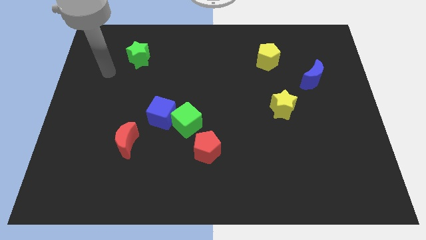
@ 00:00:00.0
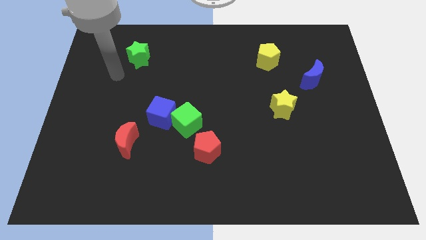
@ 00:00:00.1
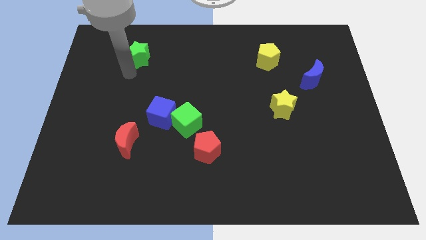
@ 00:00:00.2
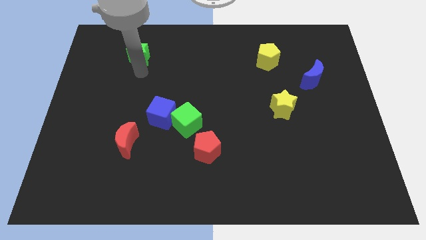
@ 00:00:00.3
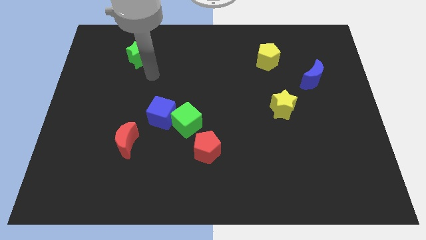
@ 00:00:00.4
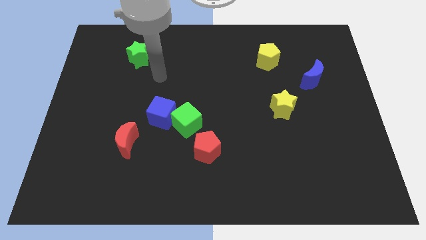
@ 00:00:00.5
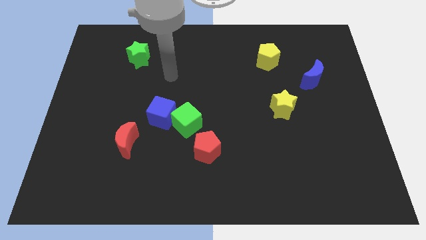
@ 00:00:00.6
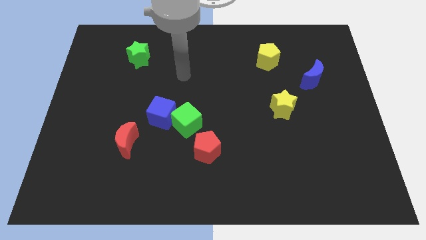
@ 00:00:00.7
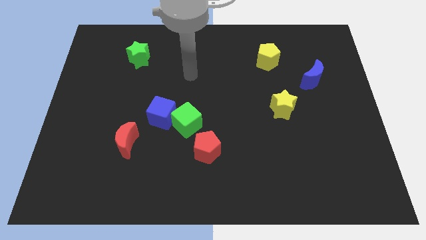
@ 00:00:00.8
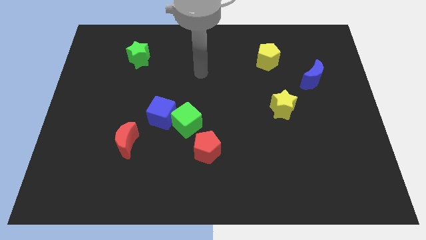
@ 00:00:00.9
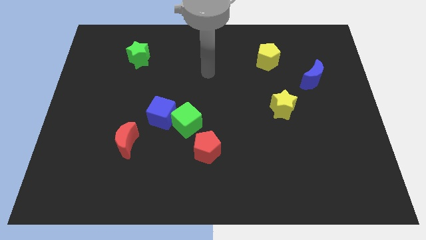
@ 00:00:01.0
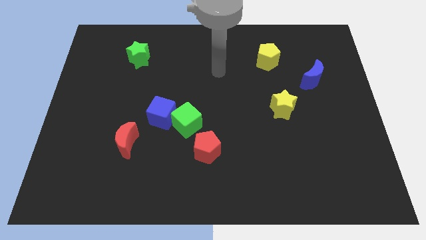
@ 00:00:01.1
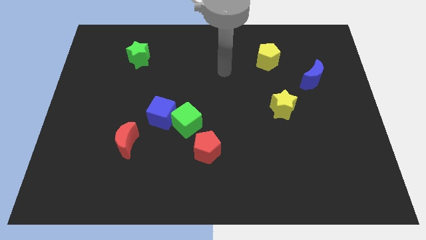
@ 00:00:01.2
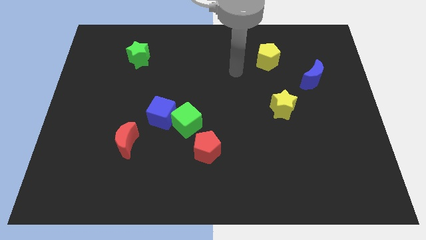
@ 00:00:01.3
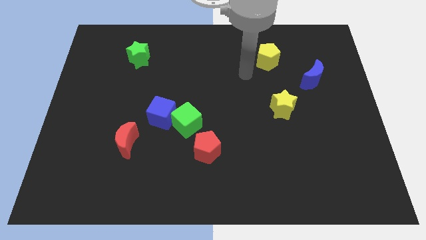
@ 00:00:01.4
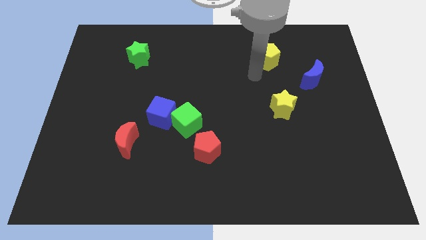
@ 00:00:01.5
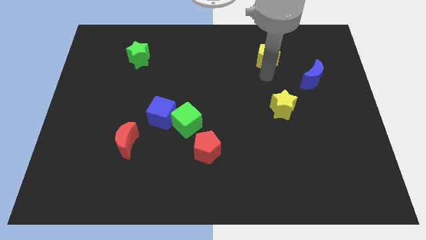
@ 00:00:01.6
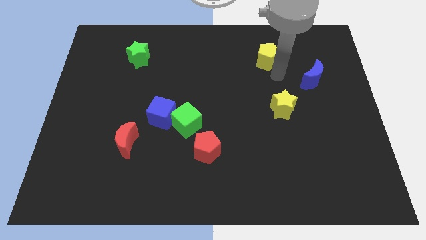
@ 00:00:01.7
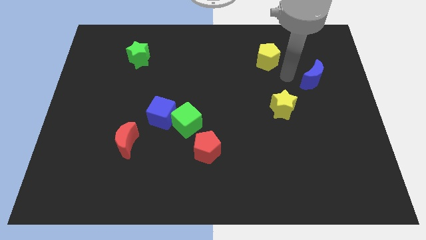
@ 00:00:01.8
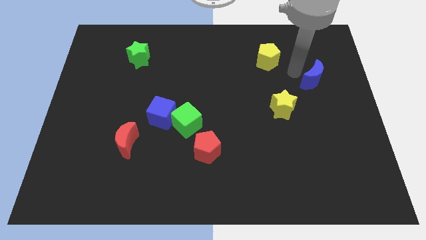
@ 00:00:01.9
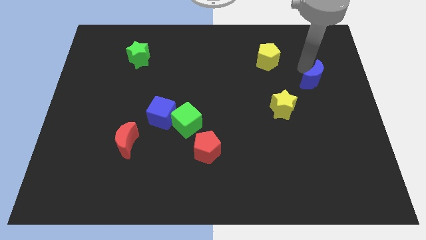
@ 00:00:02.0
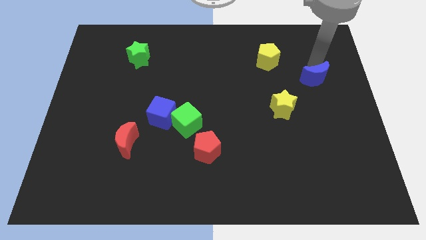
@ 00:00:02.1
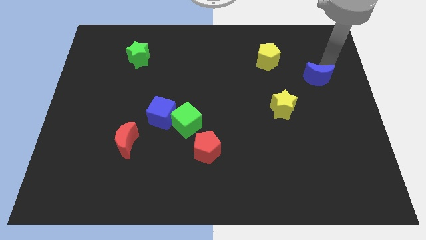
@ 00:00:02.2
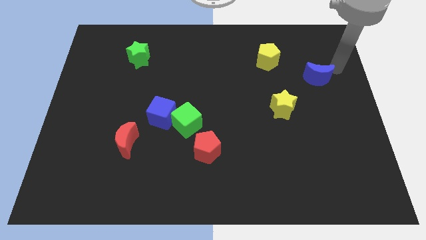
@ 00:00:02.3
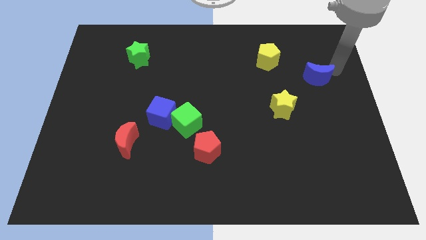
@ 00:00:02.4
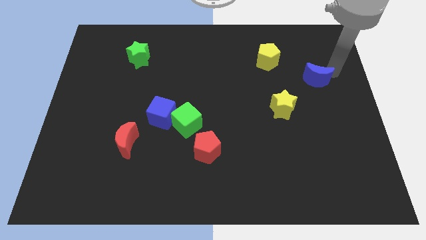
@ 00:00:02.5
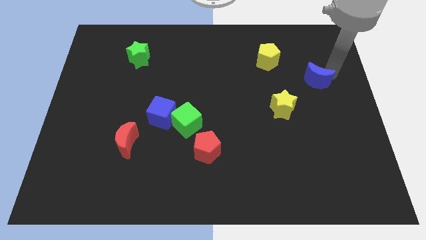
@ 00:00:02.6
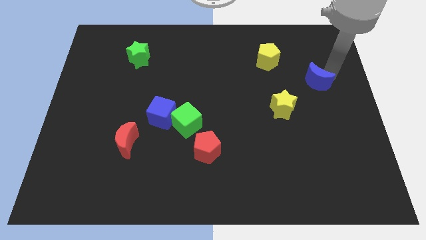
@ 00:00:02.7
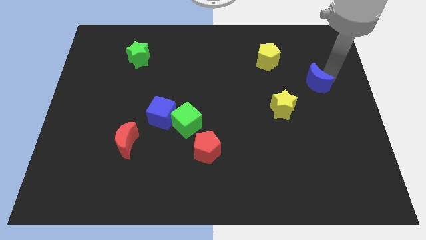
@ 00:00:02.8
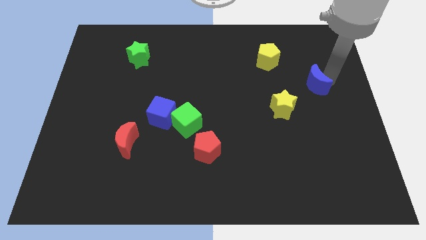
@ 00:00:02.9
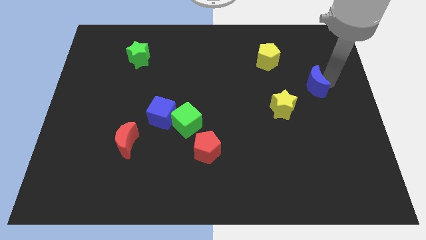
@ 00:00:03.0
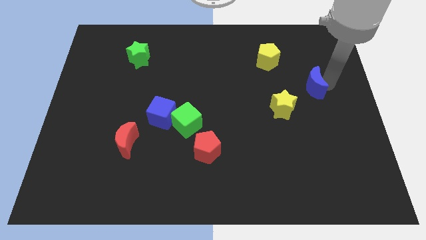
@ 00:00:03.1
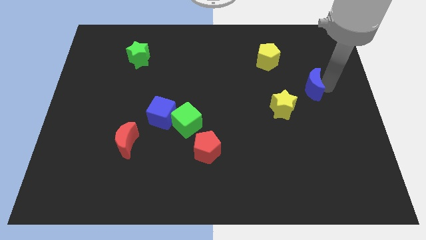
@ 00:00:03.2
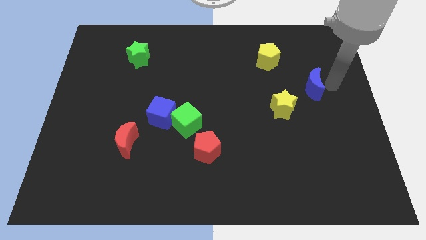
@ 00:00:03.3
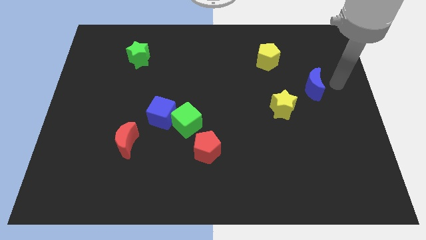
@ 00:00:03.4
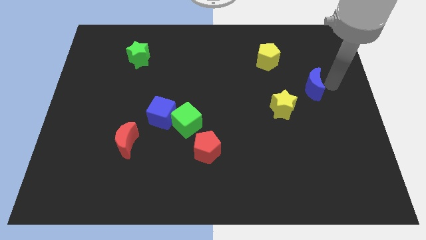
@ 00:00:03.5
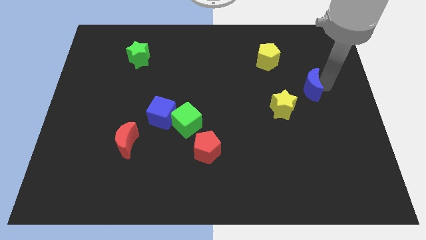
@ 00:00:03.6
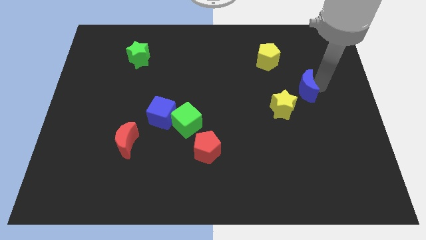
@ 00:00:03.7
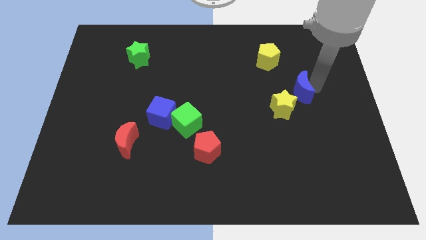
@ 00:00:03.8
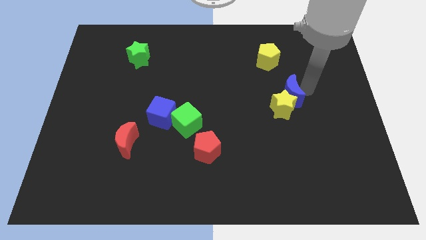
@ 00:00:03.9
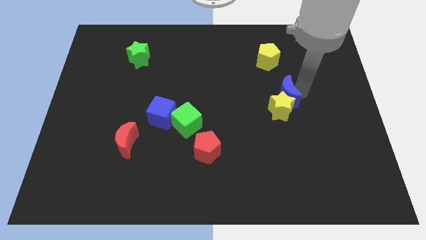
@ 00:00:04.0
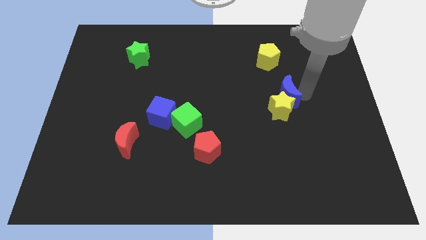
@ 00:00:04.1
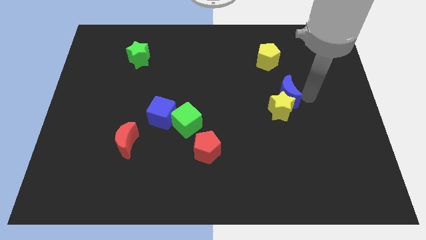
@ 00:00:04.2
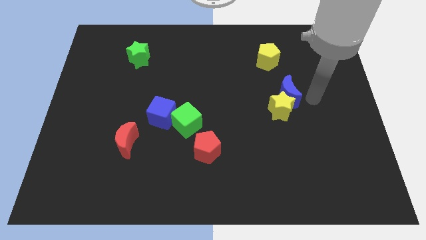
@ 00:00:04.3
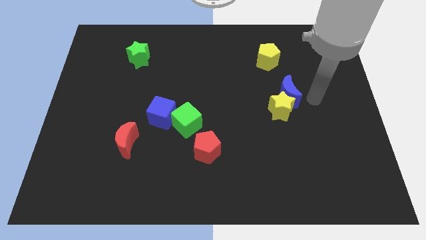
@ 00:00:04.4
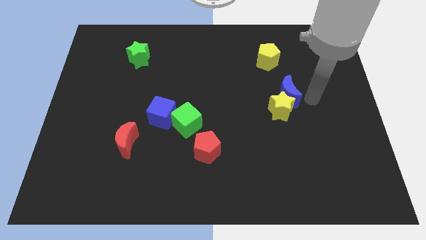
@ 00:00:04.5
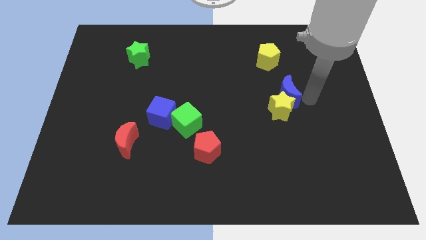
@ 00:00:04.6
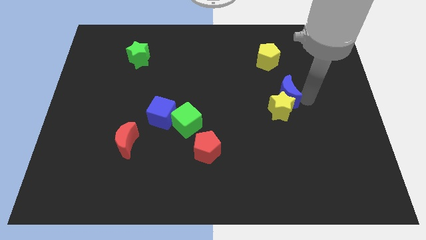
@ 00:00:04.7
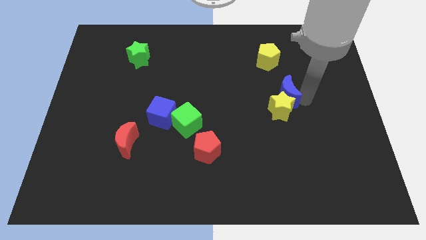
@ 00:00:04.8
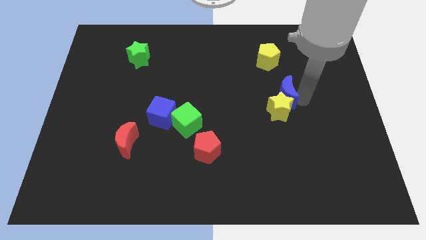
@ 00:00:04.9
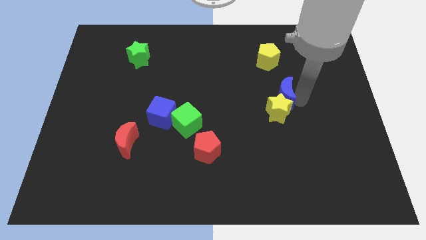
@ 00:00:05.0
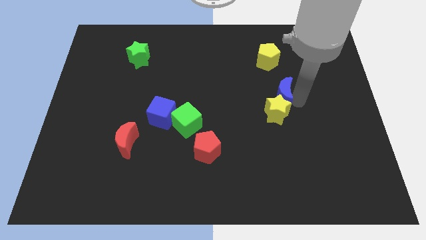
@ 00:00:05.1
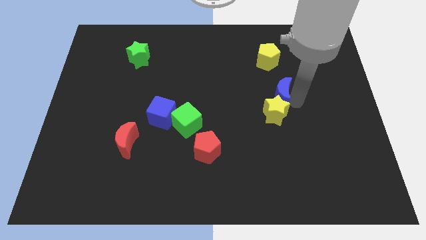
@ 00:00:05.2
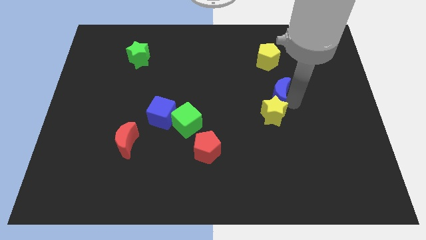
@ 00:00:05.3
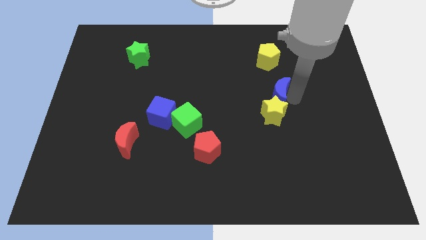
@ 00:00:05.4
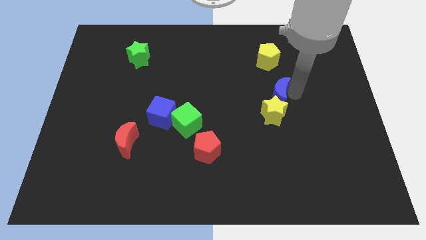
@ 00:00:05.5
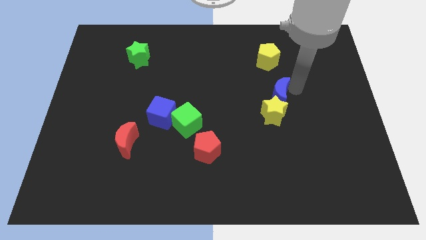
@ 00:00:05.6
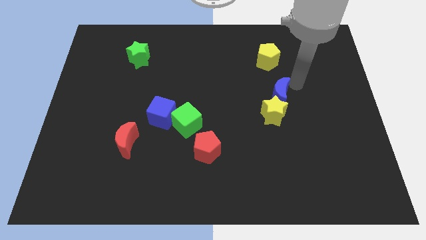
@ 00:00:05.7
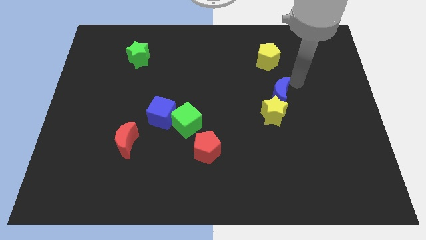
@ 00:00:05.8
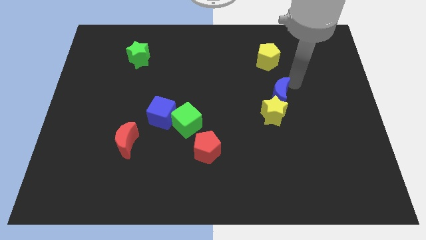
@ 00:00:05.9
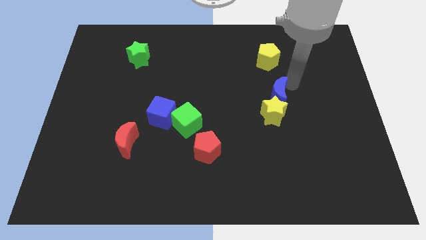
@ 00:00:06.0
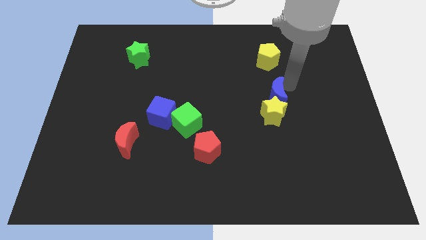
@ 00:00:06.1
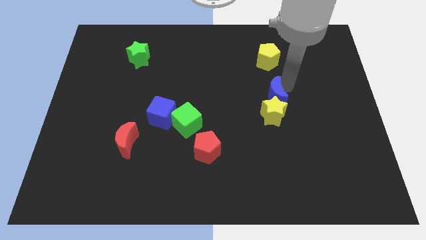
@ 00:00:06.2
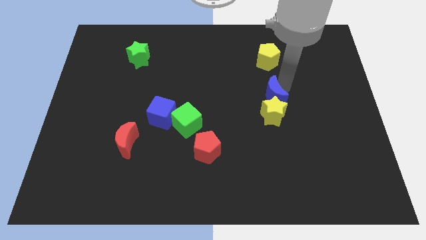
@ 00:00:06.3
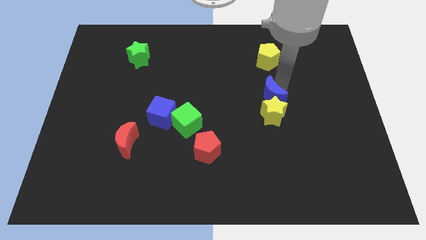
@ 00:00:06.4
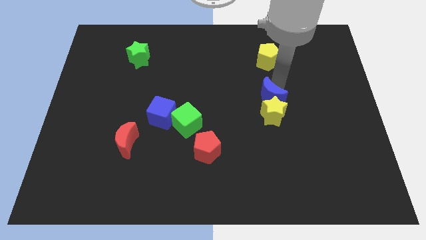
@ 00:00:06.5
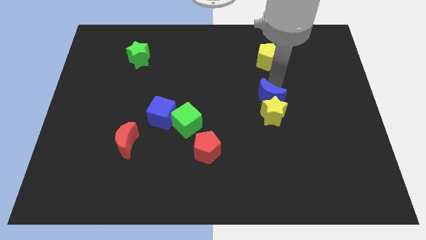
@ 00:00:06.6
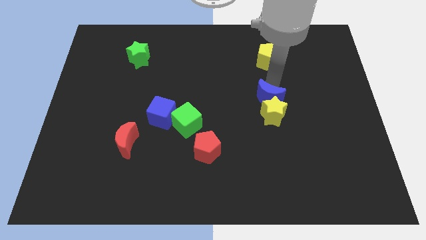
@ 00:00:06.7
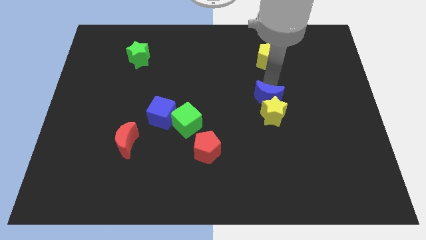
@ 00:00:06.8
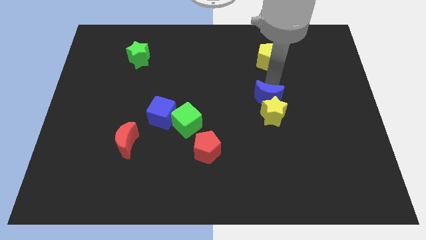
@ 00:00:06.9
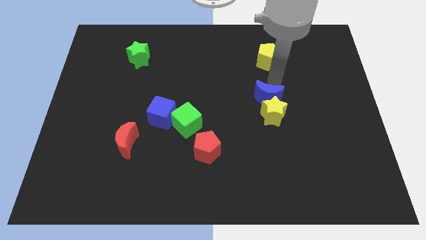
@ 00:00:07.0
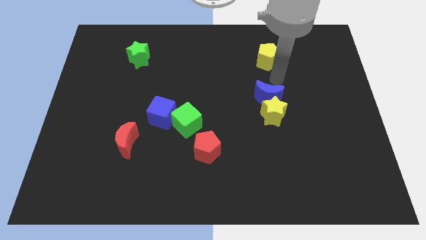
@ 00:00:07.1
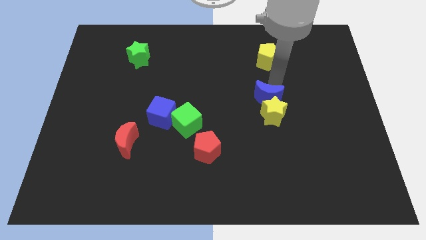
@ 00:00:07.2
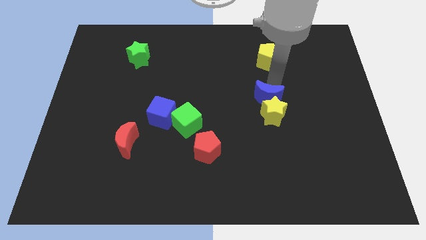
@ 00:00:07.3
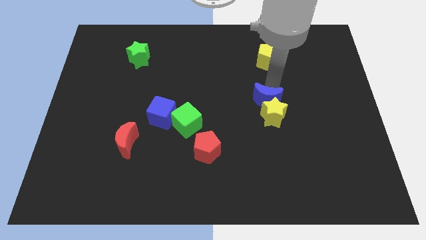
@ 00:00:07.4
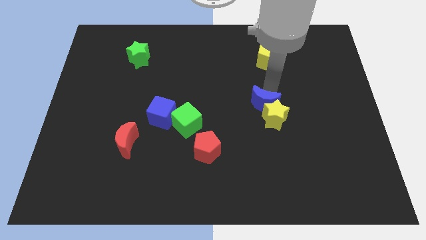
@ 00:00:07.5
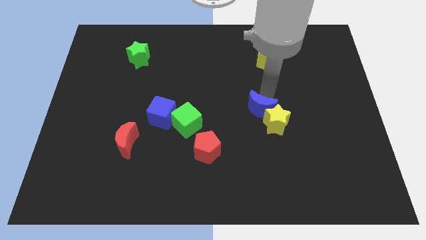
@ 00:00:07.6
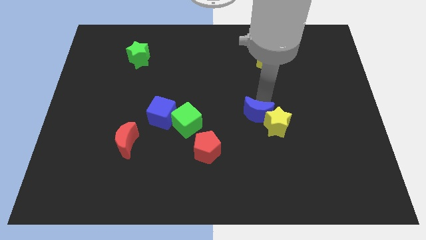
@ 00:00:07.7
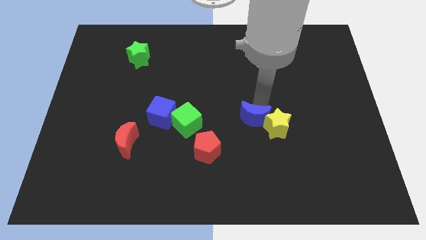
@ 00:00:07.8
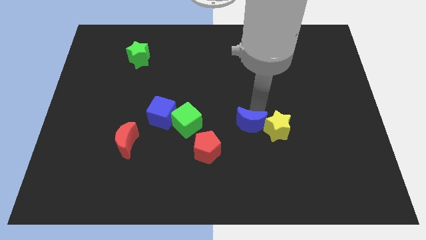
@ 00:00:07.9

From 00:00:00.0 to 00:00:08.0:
move the blue moon down and then to the left
